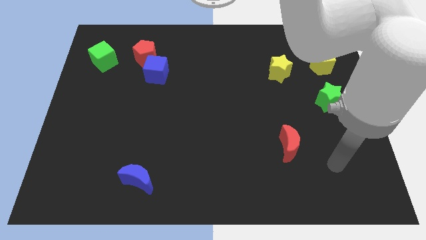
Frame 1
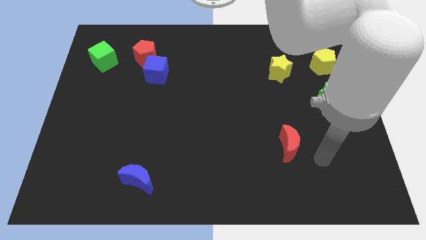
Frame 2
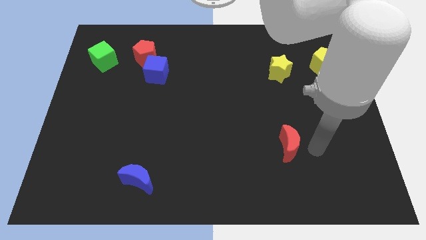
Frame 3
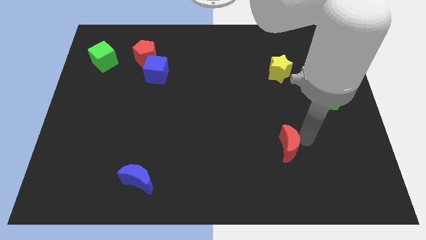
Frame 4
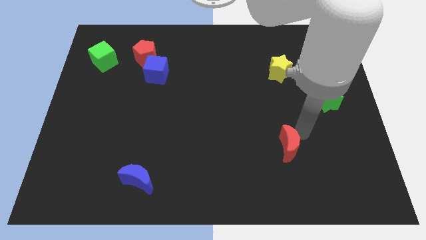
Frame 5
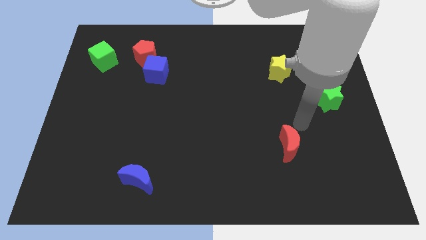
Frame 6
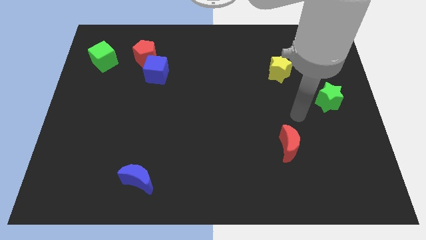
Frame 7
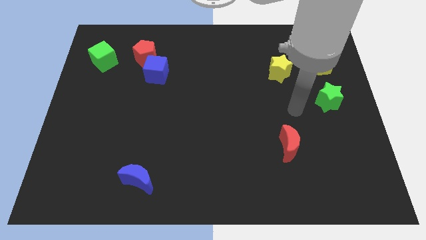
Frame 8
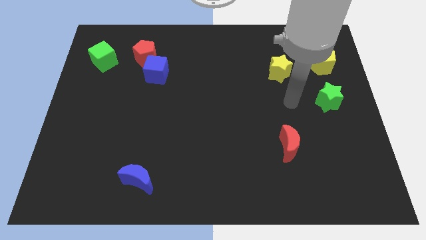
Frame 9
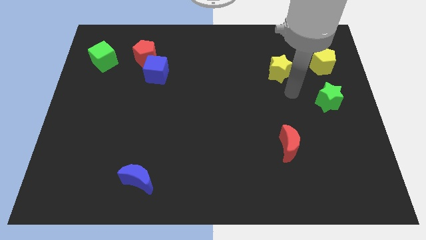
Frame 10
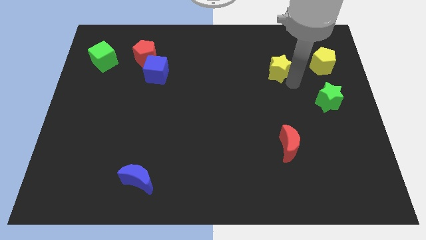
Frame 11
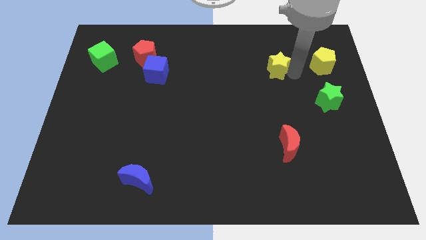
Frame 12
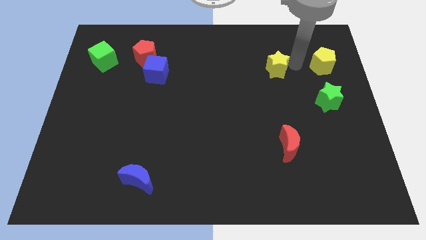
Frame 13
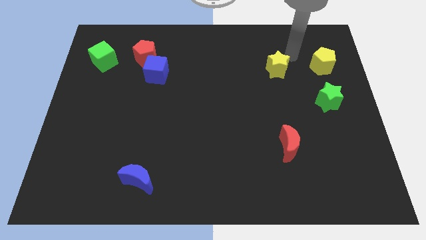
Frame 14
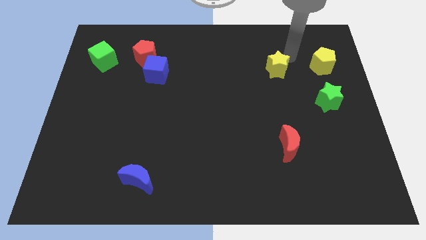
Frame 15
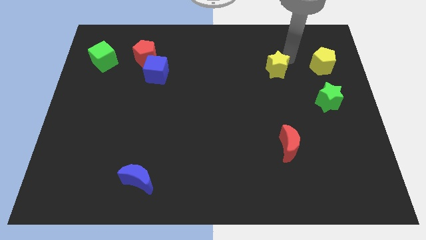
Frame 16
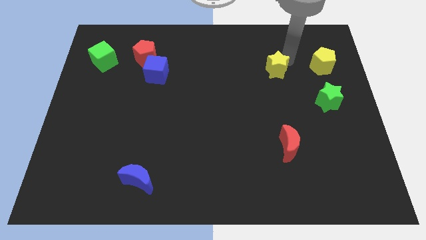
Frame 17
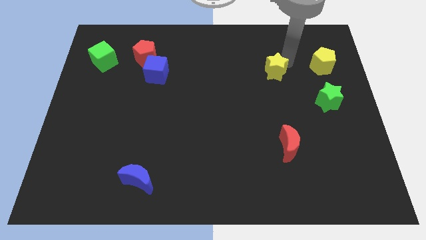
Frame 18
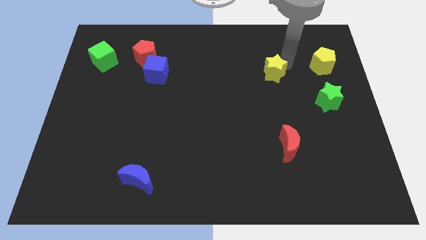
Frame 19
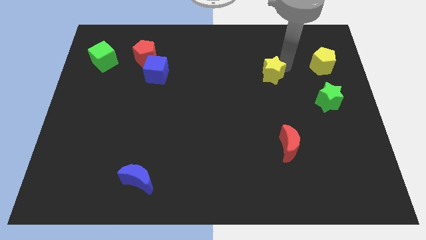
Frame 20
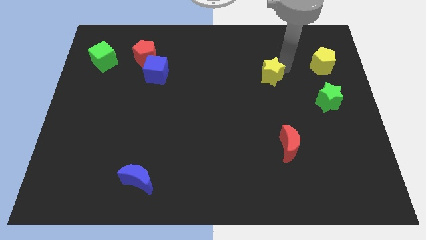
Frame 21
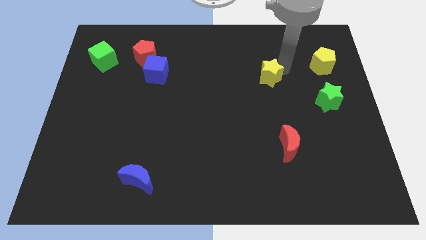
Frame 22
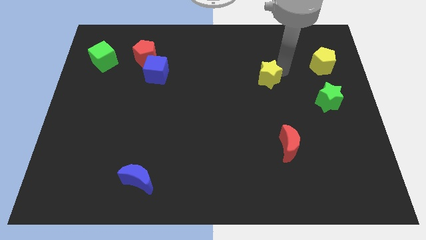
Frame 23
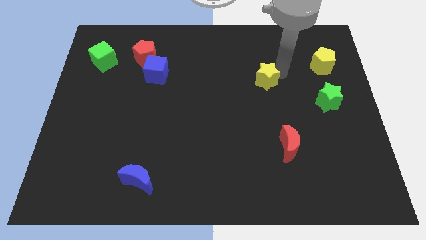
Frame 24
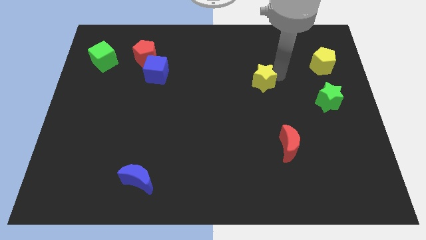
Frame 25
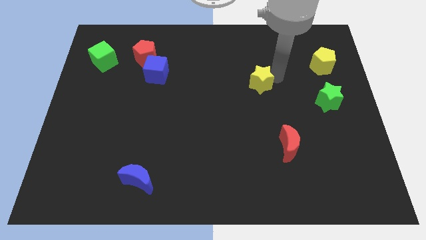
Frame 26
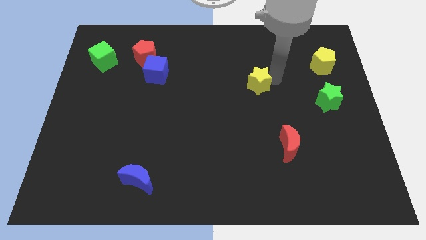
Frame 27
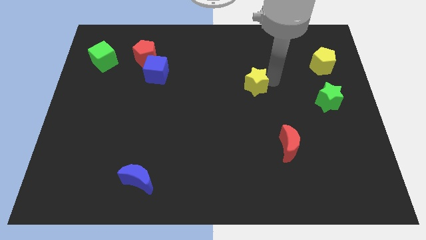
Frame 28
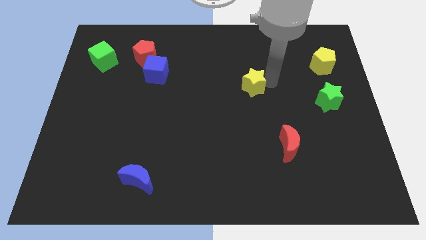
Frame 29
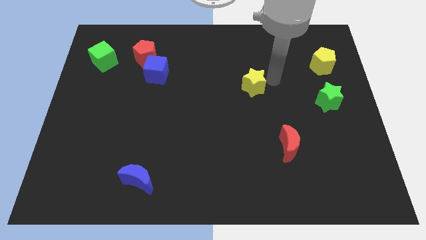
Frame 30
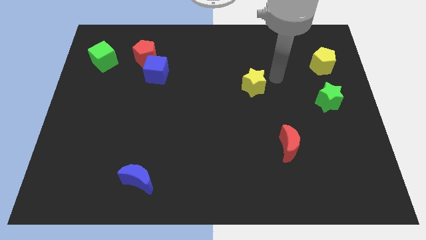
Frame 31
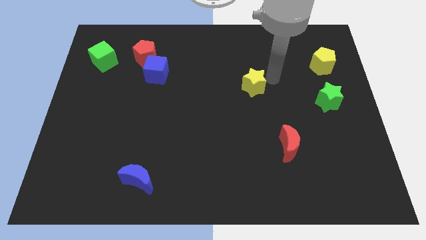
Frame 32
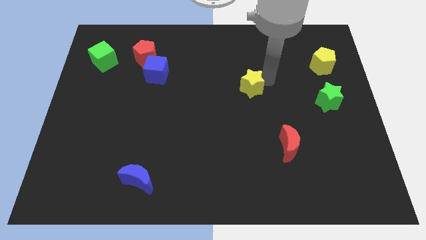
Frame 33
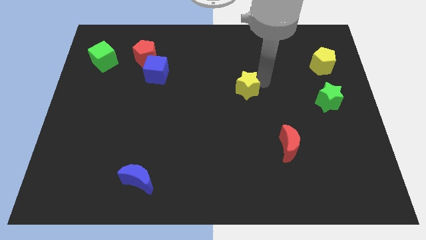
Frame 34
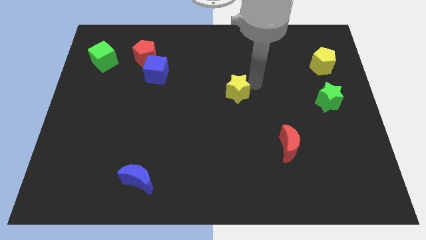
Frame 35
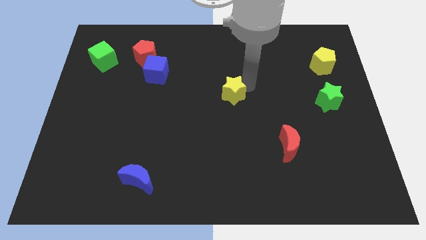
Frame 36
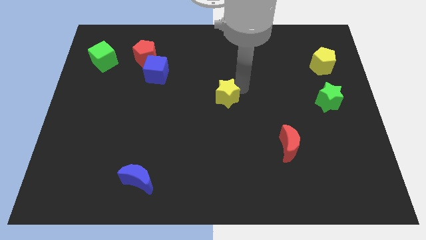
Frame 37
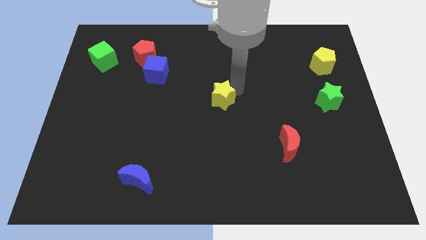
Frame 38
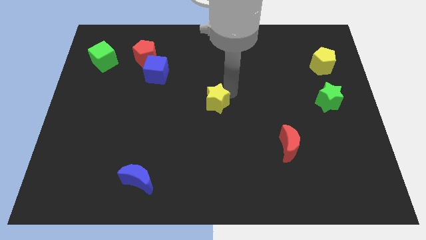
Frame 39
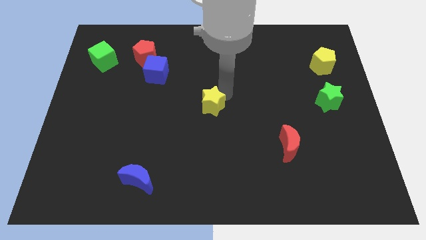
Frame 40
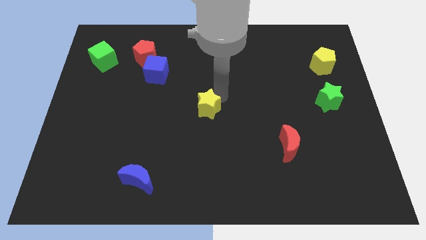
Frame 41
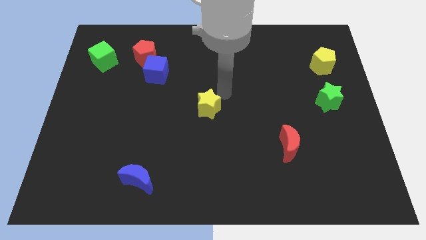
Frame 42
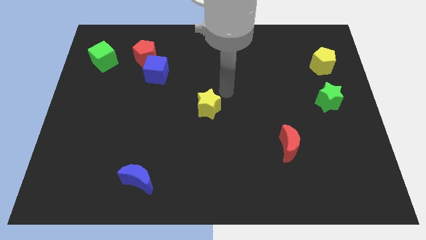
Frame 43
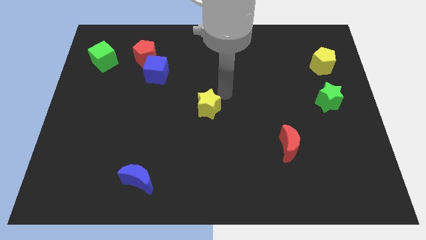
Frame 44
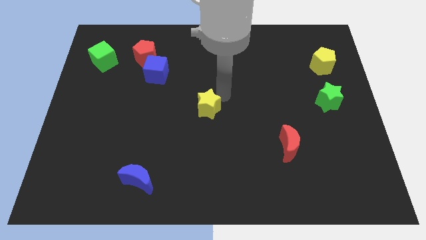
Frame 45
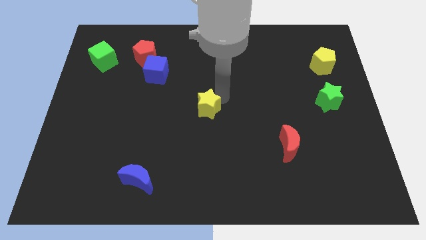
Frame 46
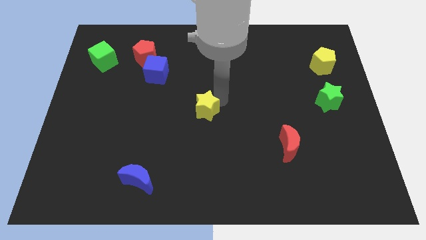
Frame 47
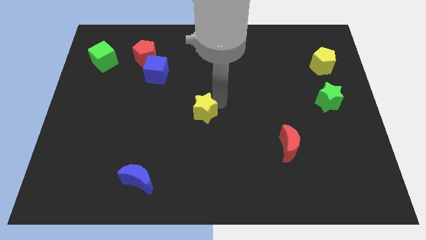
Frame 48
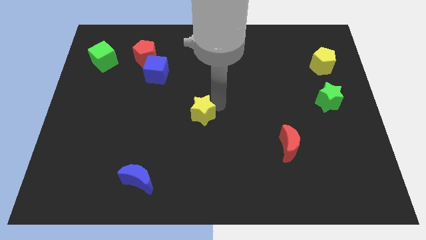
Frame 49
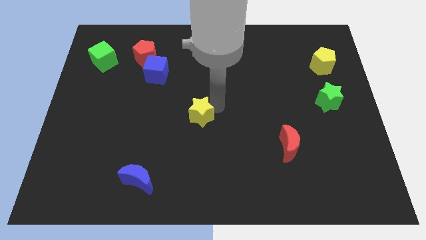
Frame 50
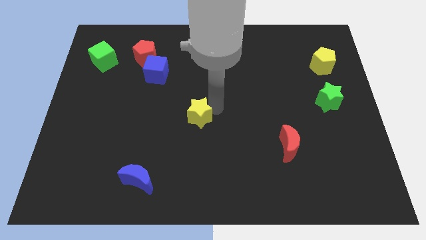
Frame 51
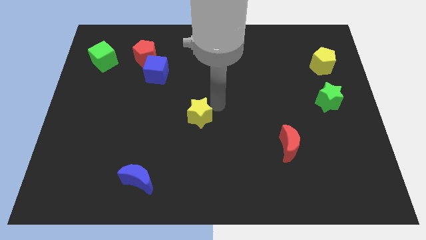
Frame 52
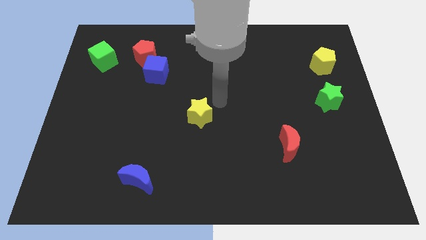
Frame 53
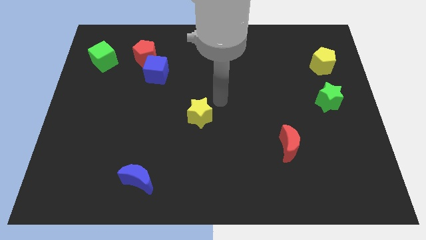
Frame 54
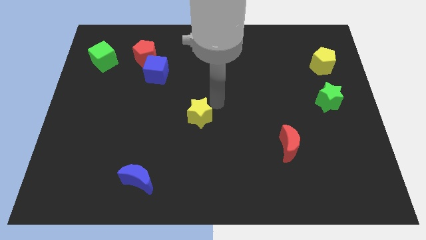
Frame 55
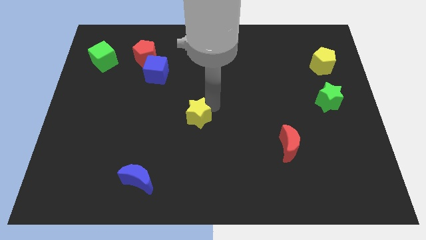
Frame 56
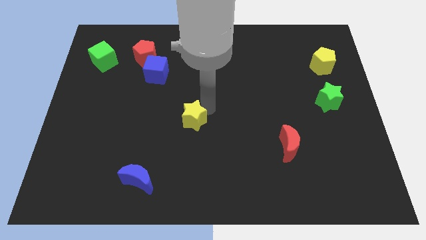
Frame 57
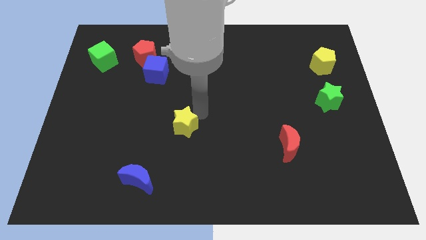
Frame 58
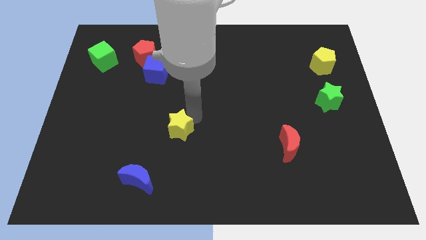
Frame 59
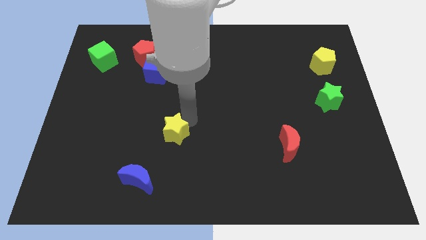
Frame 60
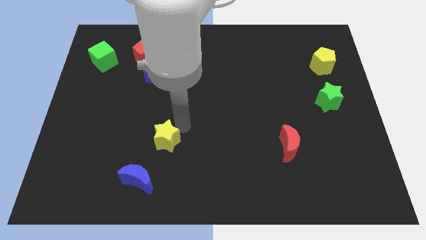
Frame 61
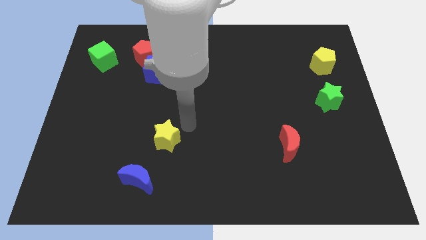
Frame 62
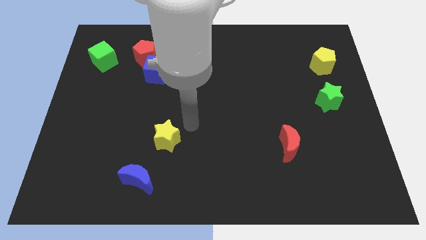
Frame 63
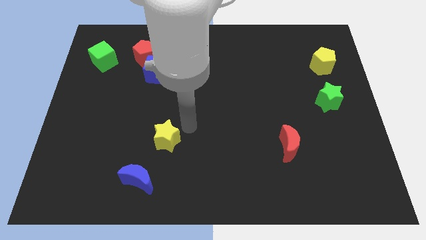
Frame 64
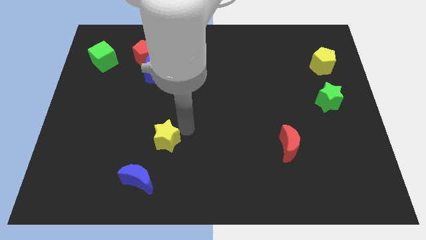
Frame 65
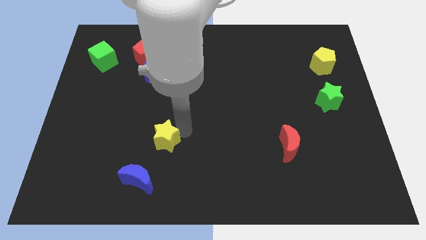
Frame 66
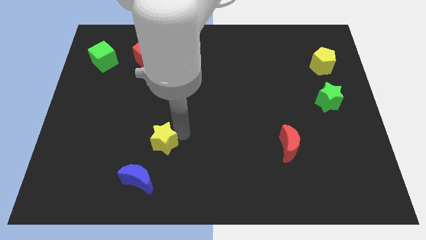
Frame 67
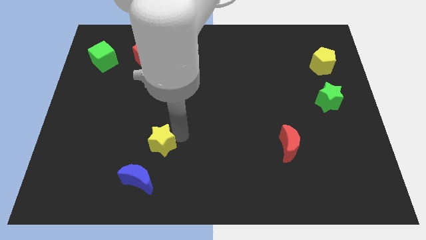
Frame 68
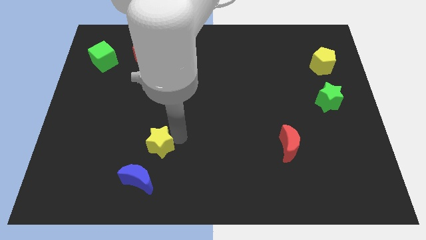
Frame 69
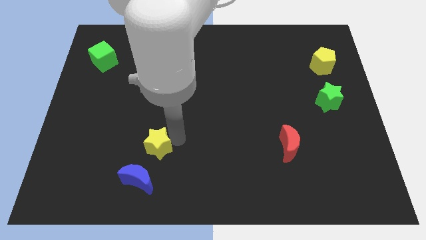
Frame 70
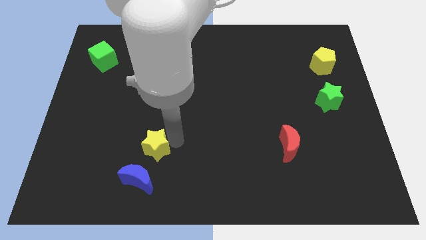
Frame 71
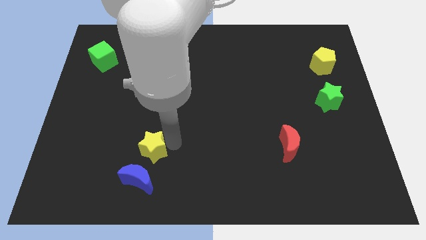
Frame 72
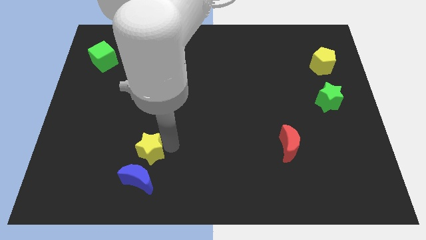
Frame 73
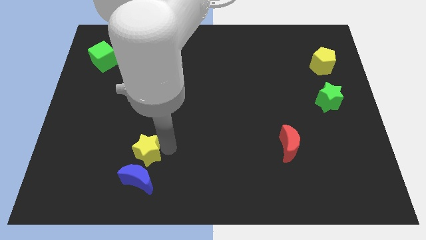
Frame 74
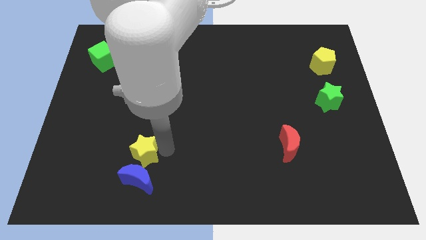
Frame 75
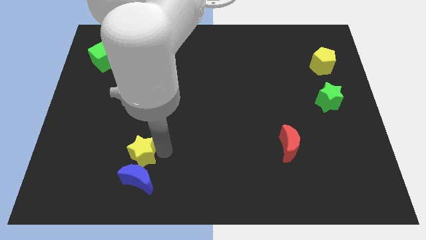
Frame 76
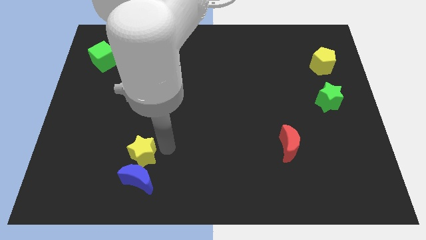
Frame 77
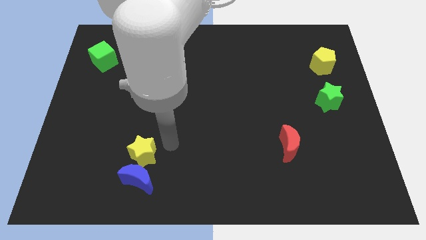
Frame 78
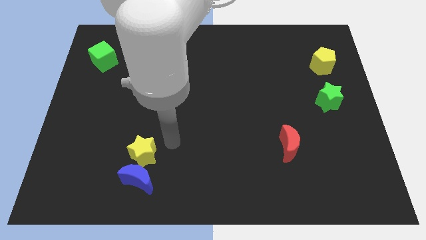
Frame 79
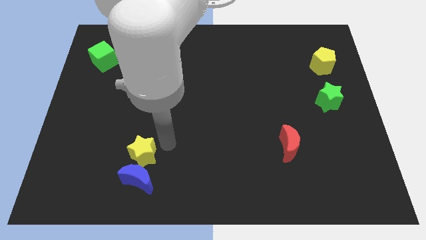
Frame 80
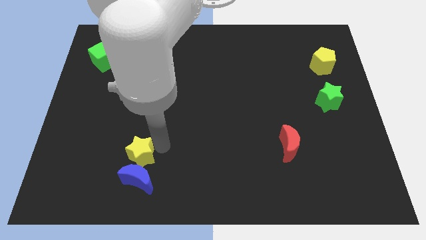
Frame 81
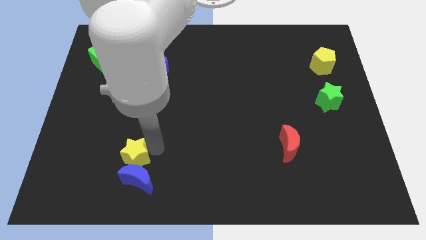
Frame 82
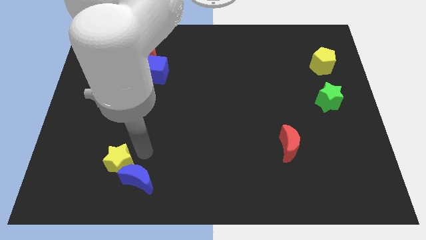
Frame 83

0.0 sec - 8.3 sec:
slide the yellow star left of the blue moon
